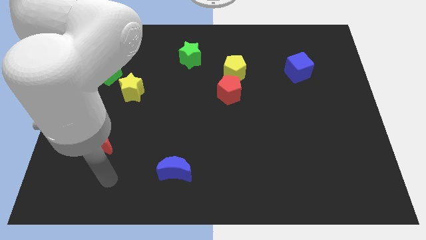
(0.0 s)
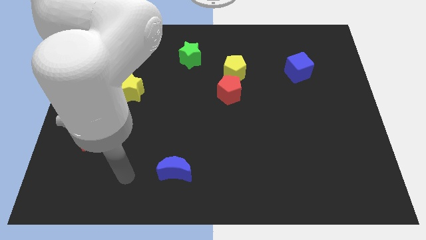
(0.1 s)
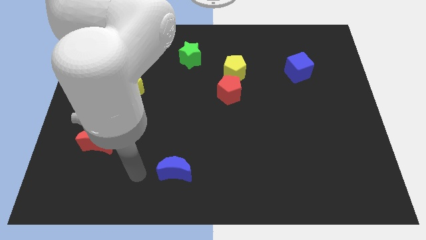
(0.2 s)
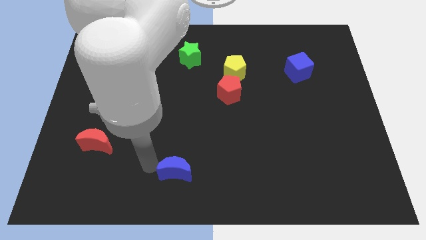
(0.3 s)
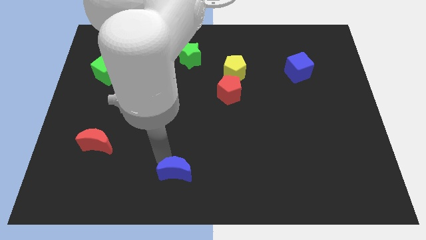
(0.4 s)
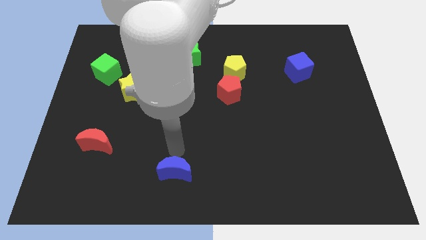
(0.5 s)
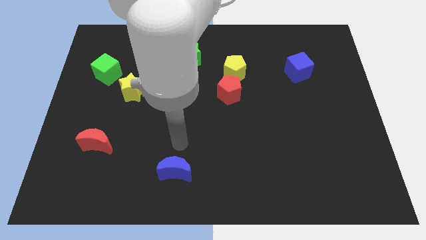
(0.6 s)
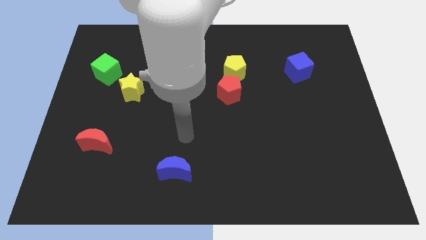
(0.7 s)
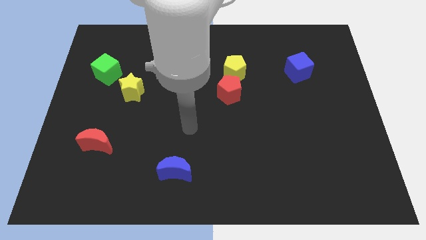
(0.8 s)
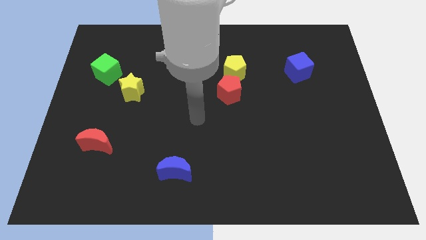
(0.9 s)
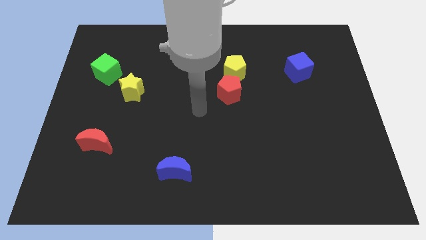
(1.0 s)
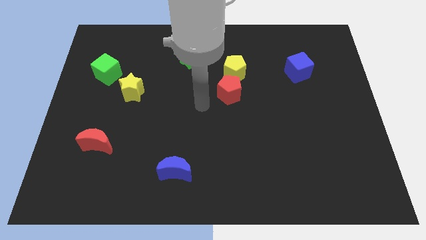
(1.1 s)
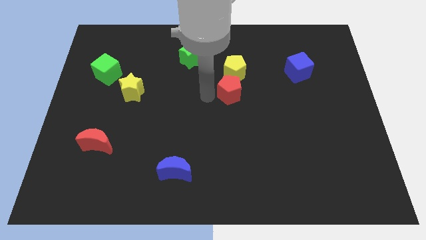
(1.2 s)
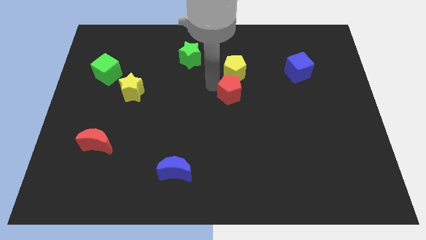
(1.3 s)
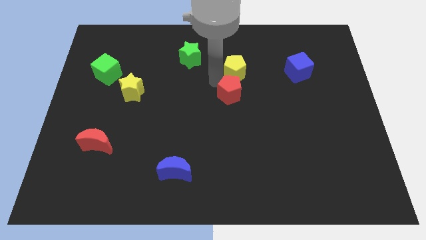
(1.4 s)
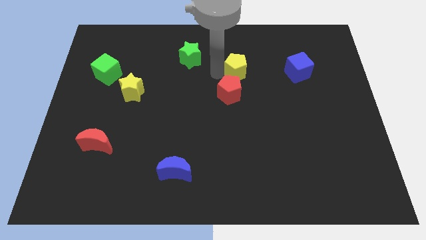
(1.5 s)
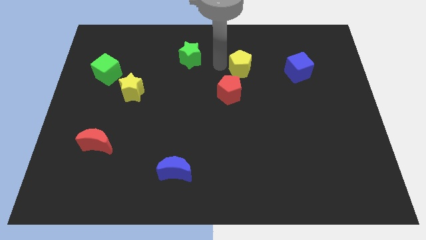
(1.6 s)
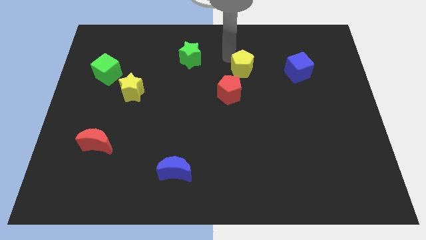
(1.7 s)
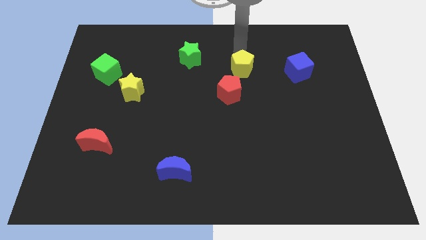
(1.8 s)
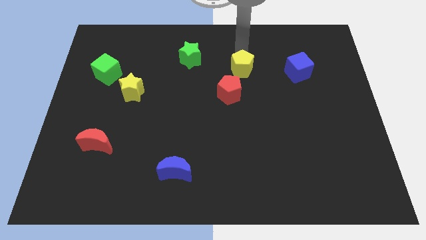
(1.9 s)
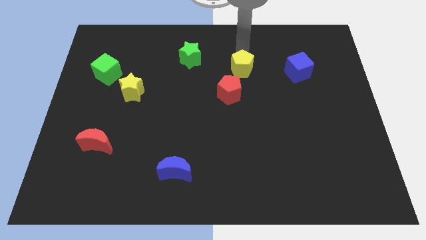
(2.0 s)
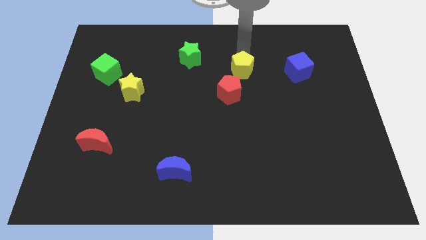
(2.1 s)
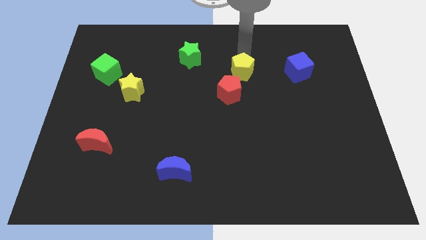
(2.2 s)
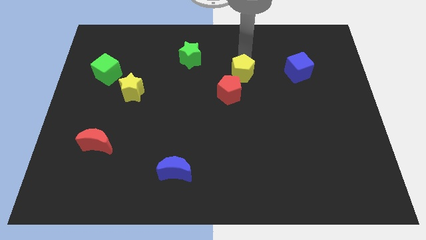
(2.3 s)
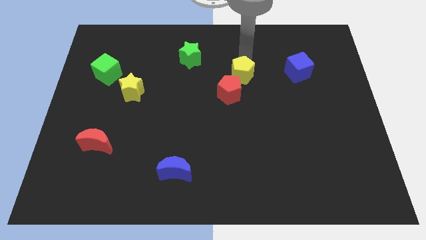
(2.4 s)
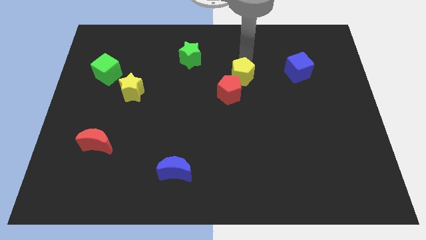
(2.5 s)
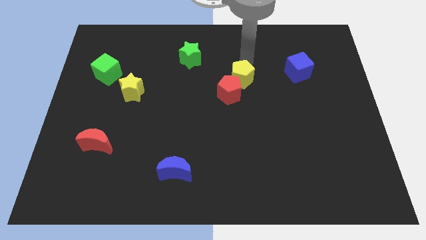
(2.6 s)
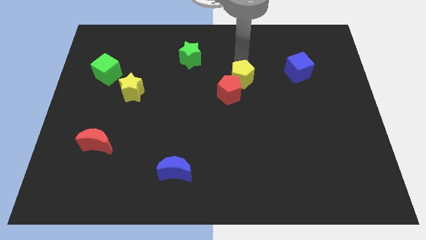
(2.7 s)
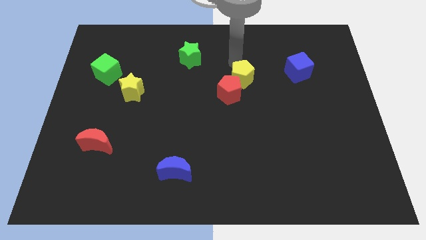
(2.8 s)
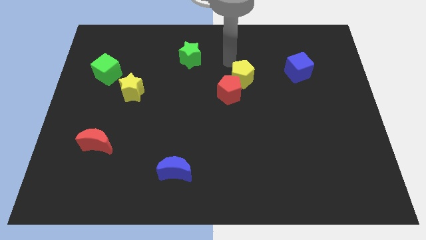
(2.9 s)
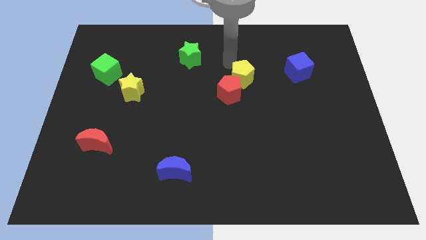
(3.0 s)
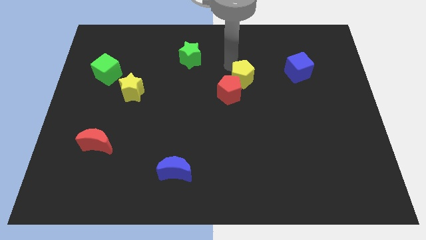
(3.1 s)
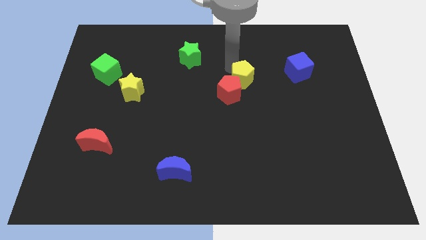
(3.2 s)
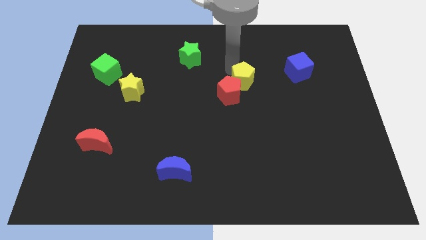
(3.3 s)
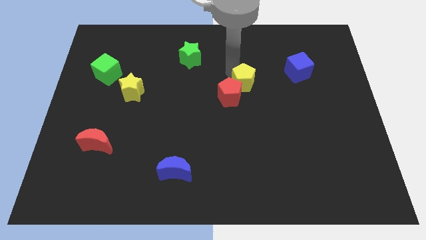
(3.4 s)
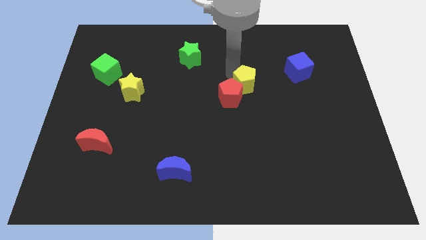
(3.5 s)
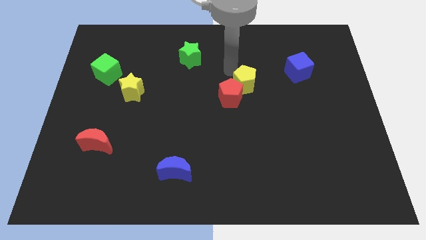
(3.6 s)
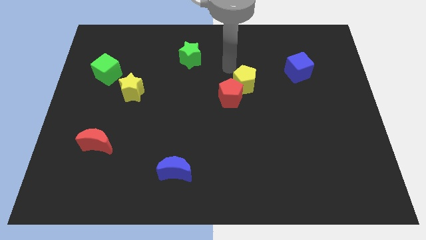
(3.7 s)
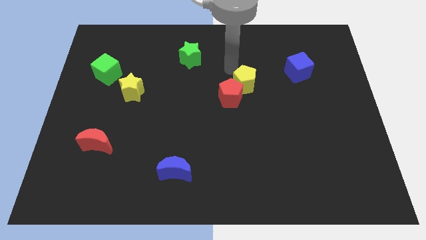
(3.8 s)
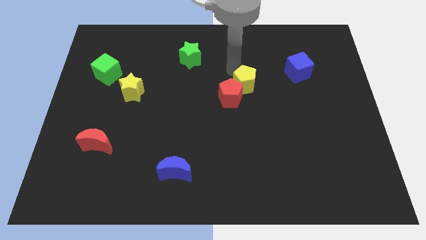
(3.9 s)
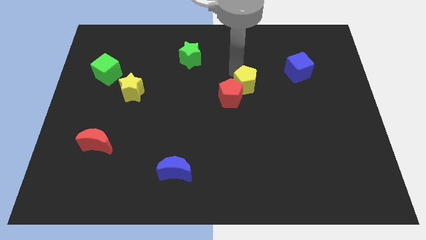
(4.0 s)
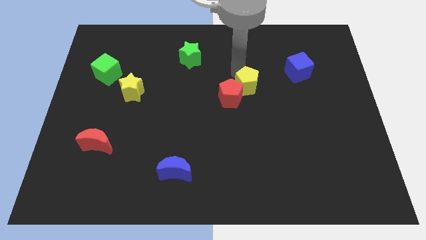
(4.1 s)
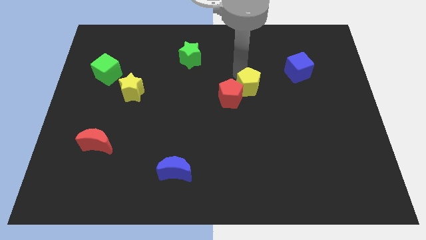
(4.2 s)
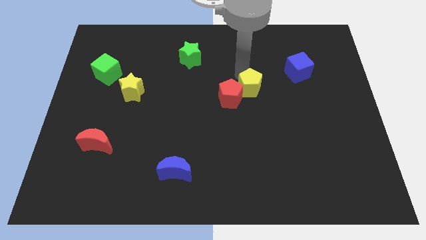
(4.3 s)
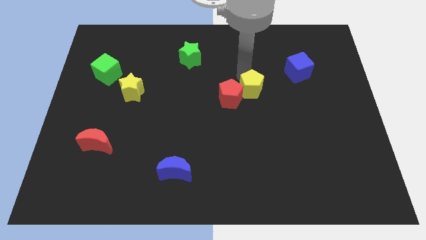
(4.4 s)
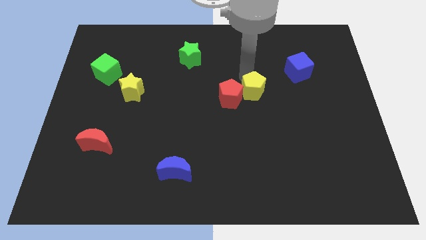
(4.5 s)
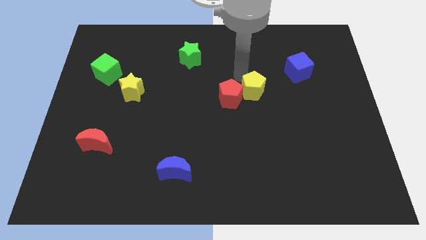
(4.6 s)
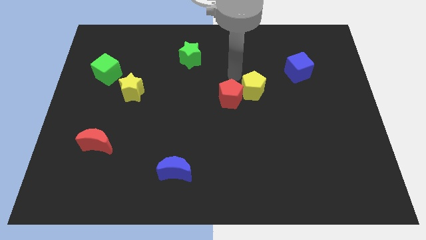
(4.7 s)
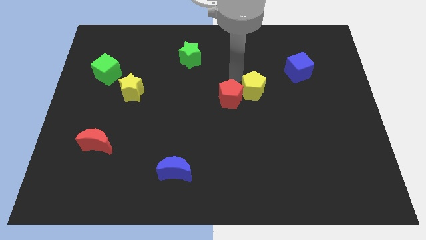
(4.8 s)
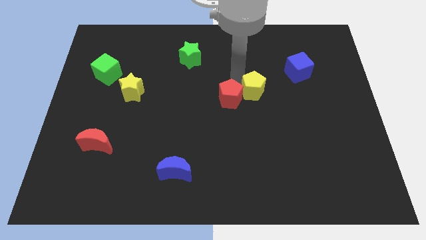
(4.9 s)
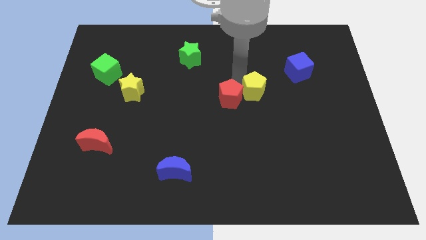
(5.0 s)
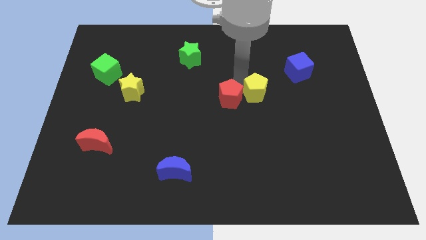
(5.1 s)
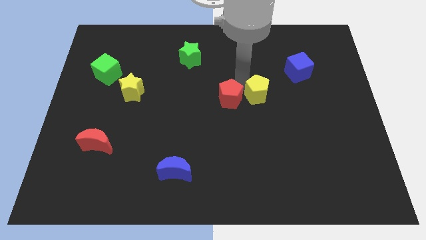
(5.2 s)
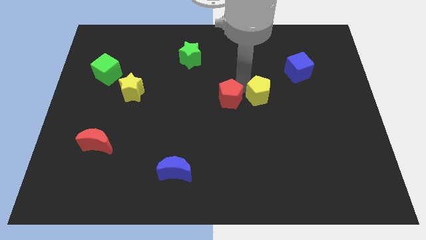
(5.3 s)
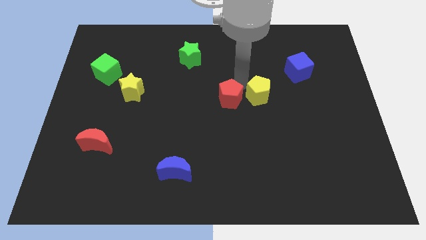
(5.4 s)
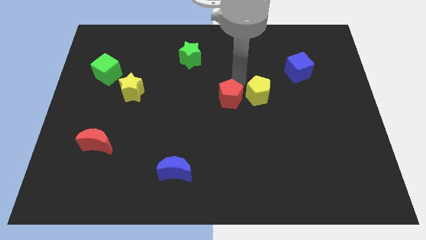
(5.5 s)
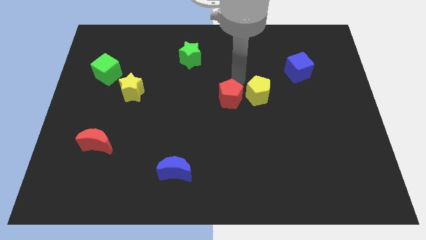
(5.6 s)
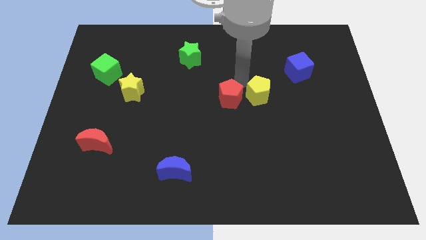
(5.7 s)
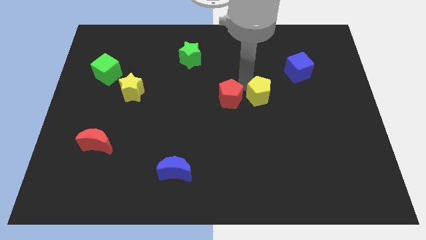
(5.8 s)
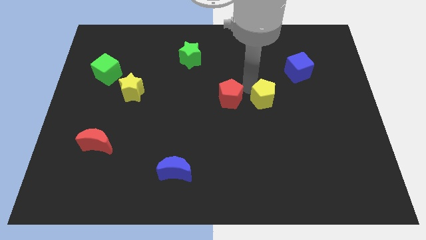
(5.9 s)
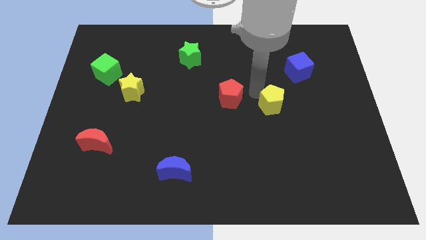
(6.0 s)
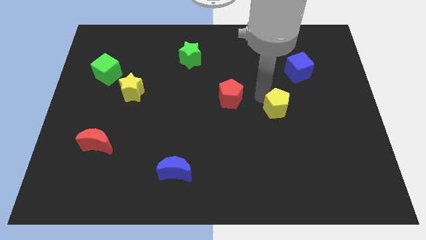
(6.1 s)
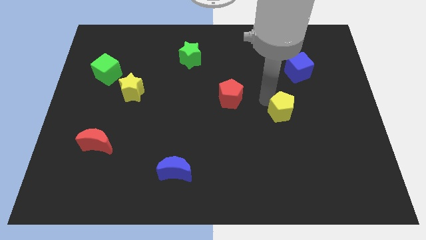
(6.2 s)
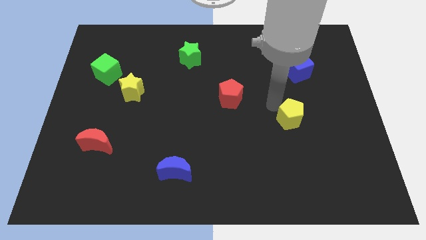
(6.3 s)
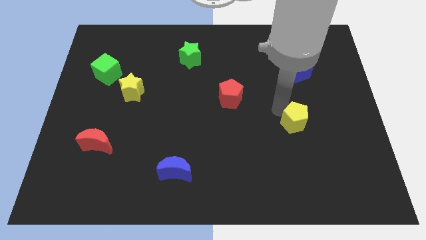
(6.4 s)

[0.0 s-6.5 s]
move the yellow pentagon downwards and to the right diagonally

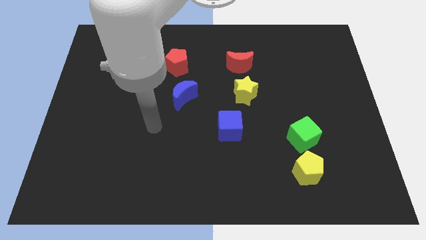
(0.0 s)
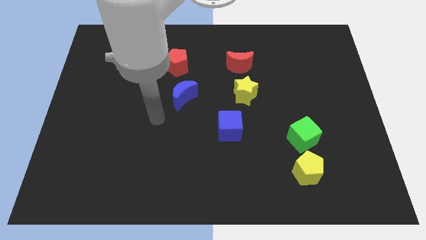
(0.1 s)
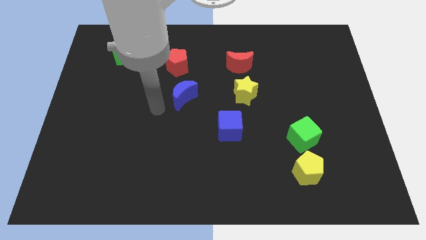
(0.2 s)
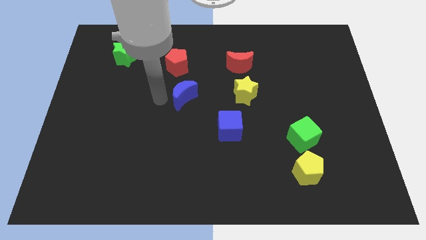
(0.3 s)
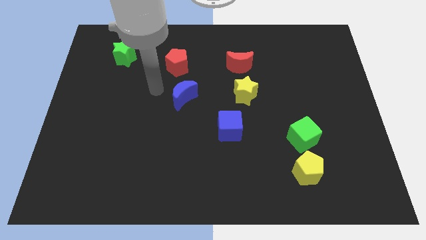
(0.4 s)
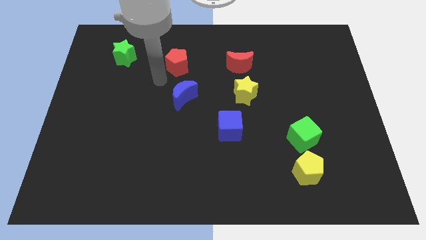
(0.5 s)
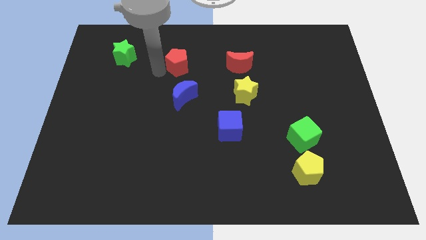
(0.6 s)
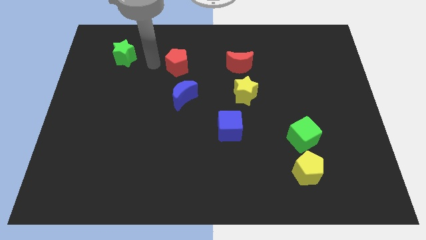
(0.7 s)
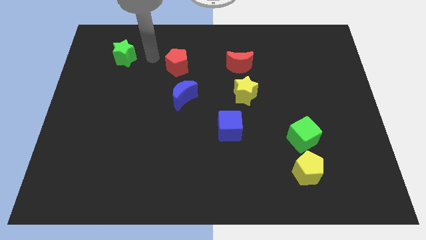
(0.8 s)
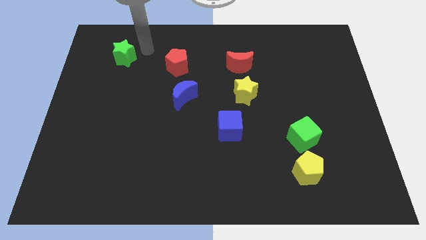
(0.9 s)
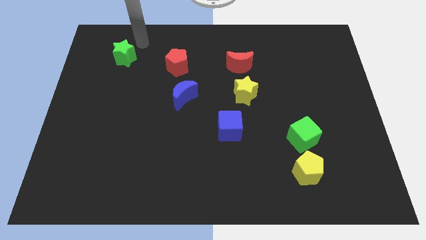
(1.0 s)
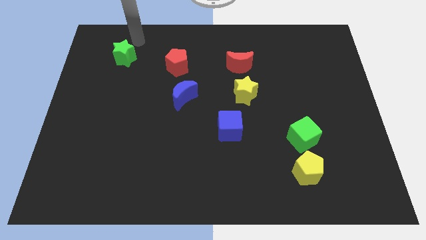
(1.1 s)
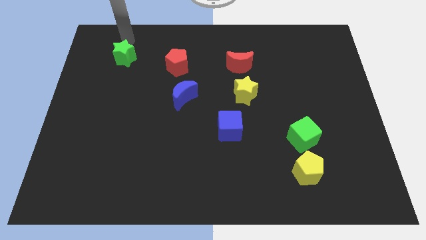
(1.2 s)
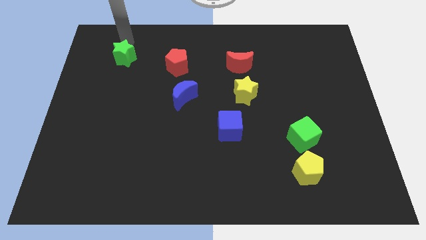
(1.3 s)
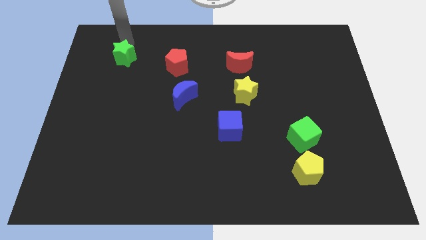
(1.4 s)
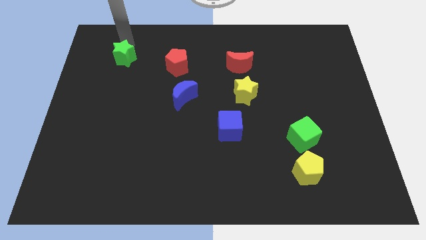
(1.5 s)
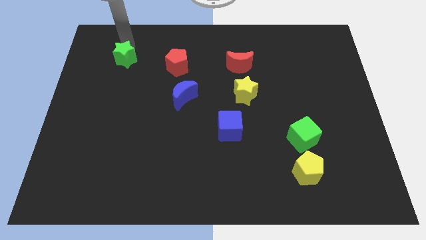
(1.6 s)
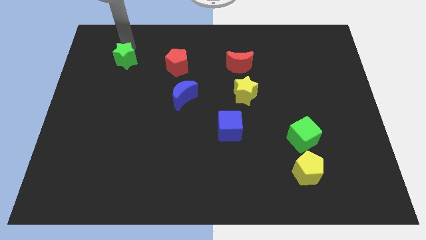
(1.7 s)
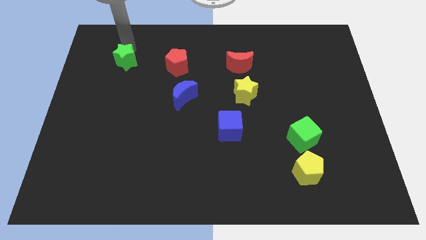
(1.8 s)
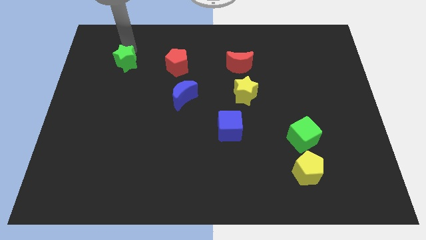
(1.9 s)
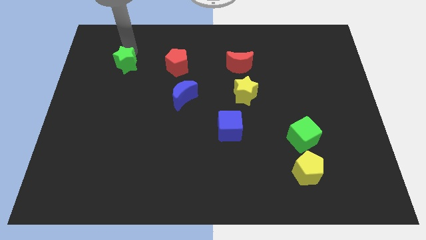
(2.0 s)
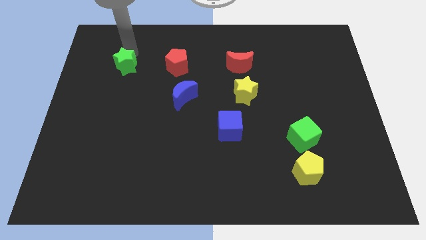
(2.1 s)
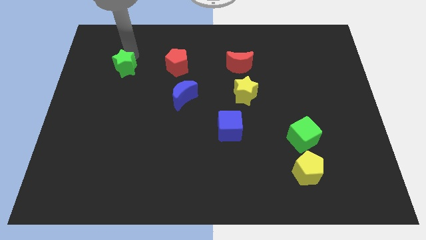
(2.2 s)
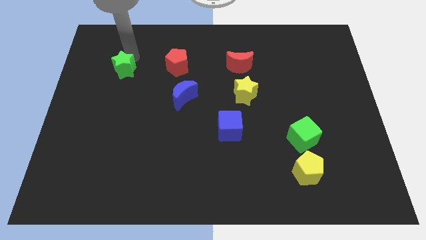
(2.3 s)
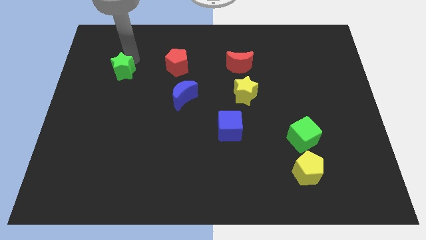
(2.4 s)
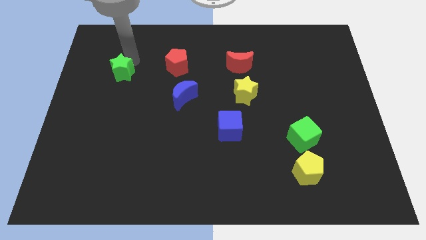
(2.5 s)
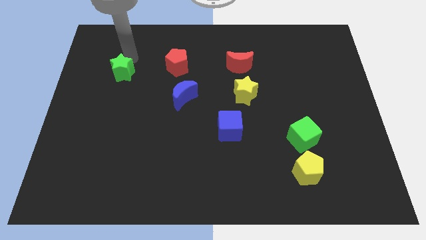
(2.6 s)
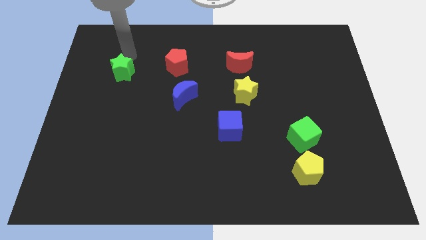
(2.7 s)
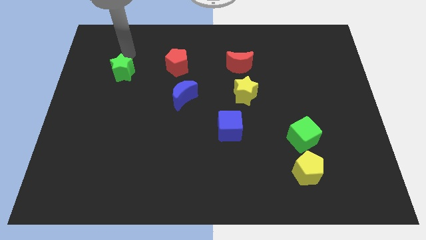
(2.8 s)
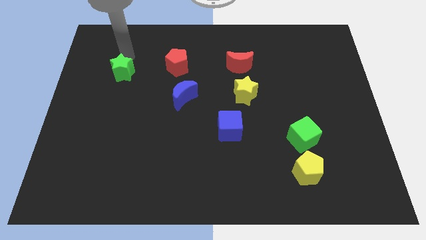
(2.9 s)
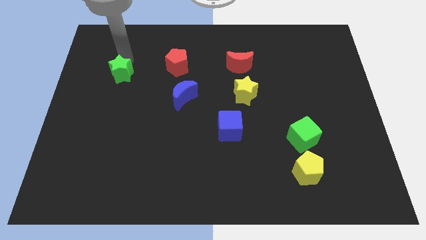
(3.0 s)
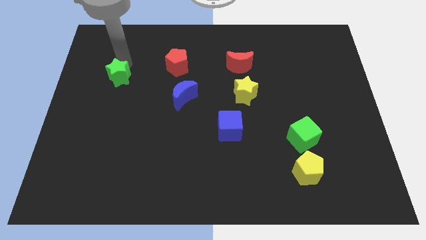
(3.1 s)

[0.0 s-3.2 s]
move the green star downwards somewhat
